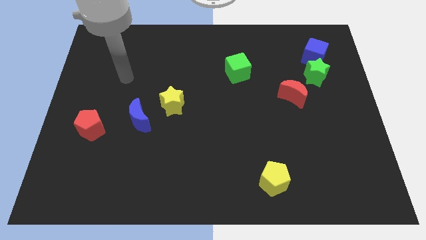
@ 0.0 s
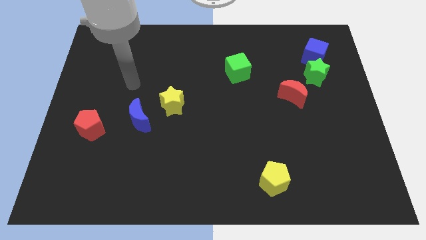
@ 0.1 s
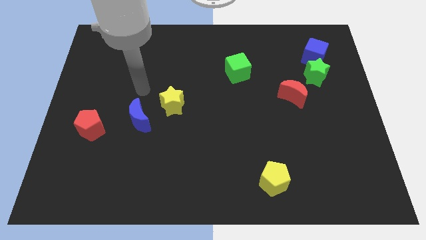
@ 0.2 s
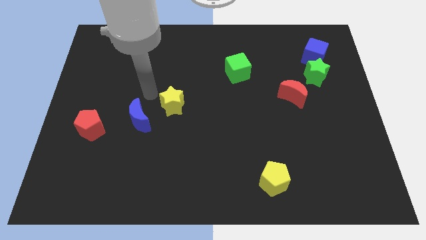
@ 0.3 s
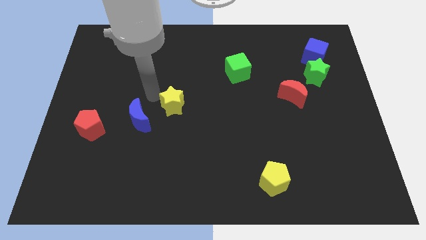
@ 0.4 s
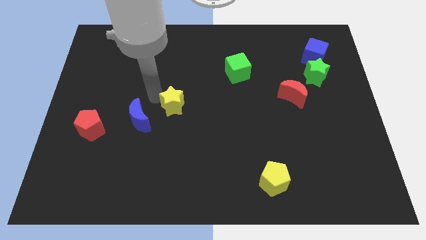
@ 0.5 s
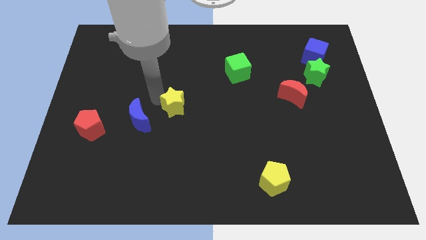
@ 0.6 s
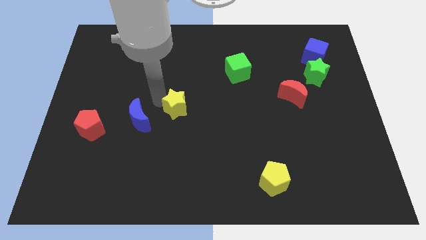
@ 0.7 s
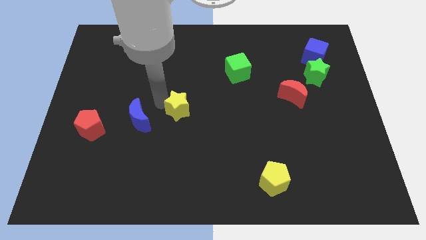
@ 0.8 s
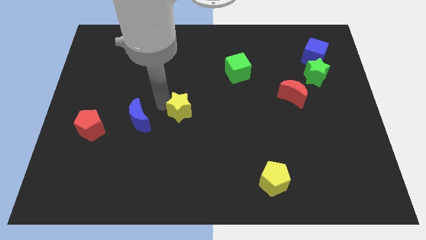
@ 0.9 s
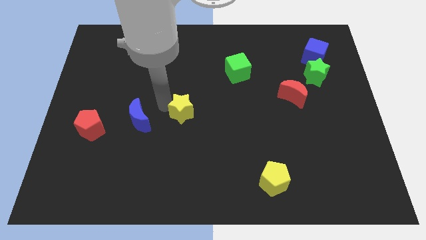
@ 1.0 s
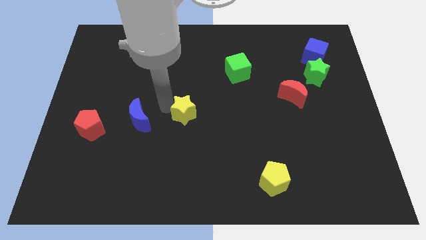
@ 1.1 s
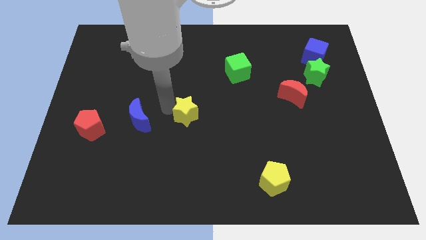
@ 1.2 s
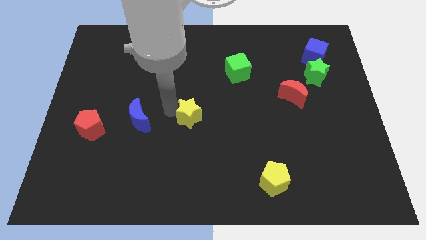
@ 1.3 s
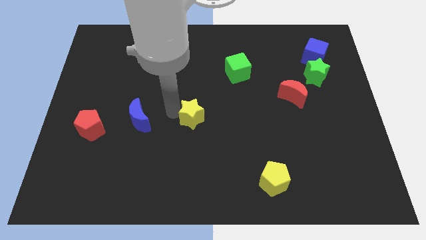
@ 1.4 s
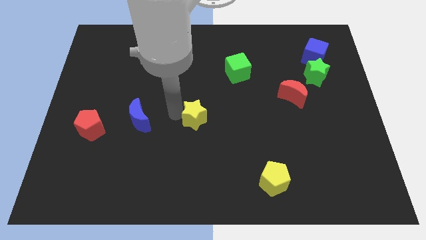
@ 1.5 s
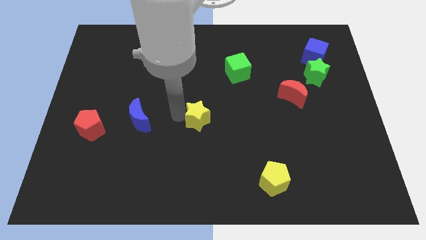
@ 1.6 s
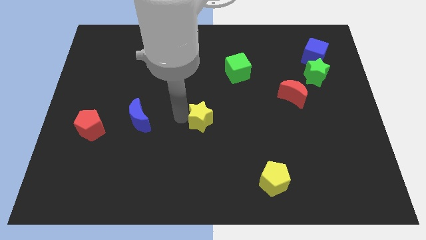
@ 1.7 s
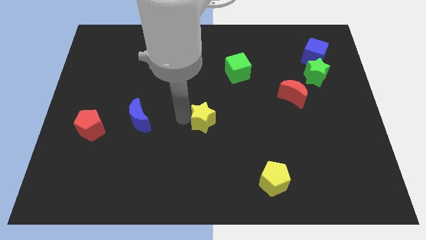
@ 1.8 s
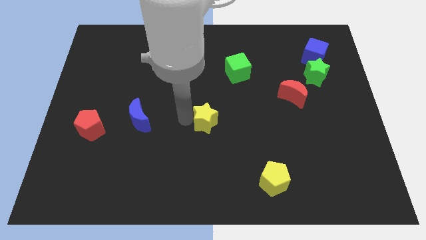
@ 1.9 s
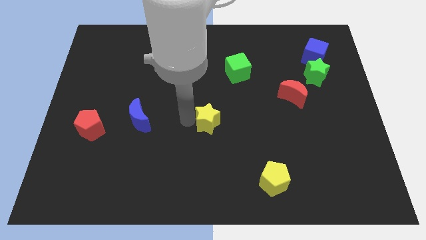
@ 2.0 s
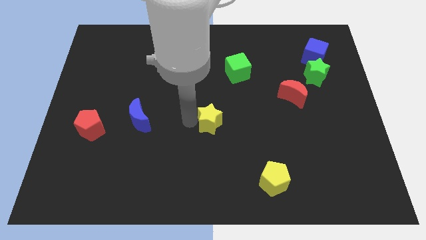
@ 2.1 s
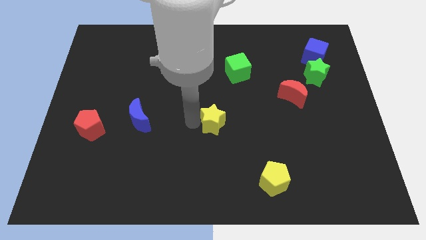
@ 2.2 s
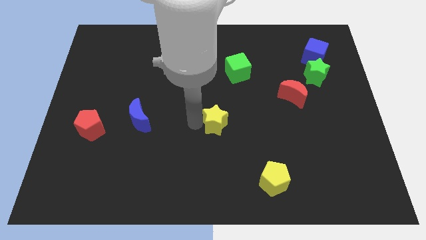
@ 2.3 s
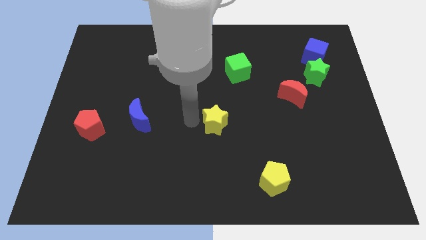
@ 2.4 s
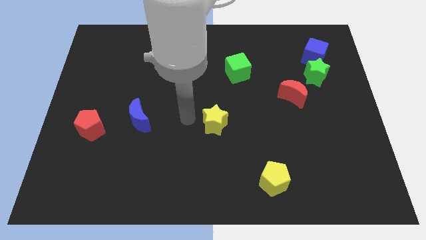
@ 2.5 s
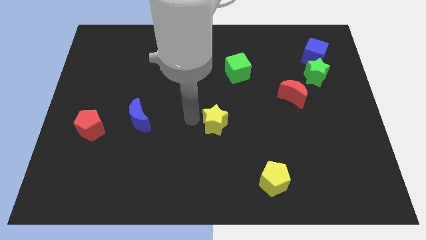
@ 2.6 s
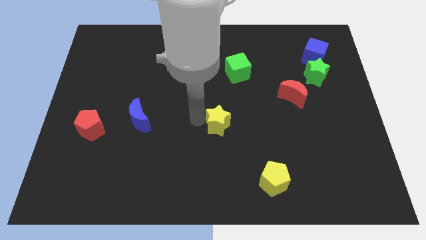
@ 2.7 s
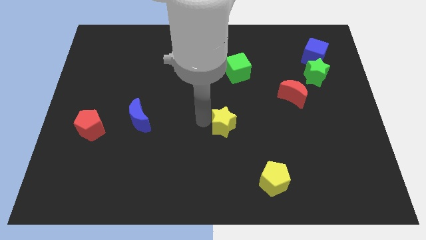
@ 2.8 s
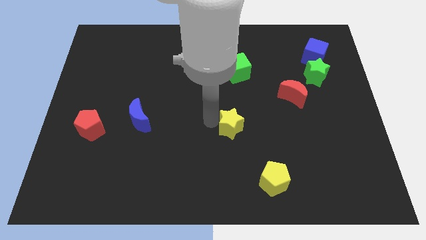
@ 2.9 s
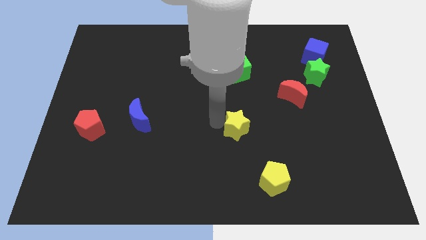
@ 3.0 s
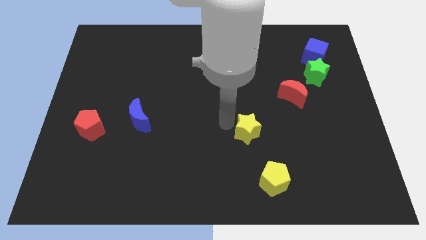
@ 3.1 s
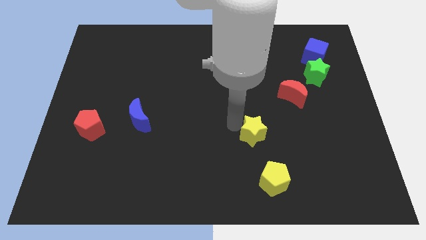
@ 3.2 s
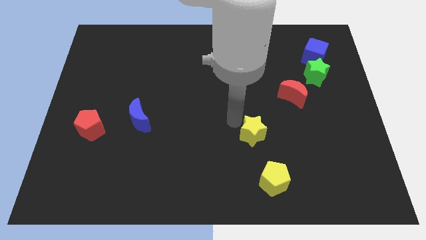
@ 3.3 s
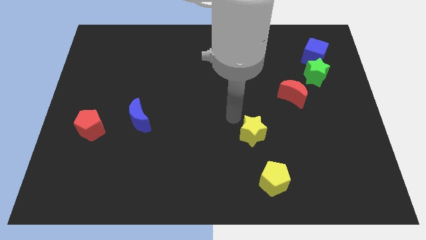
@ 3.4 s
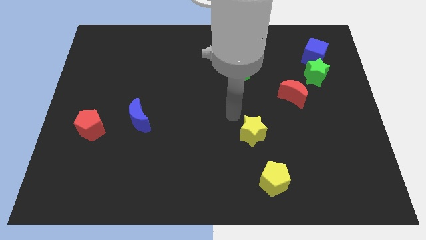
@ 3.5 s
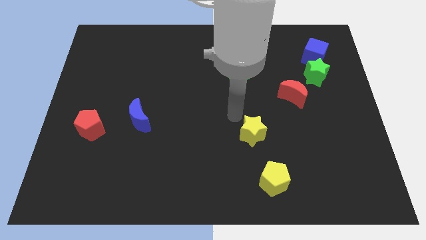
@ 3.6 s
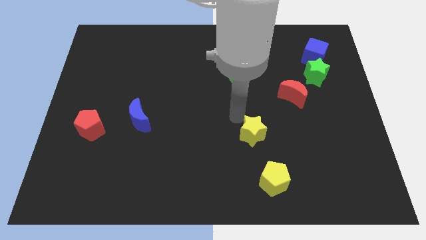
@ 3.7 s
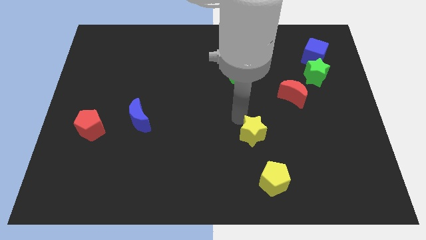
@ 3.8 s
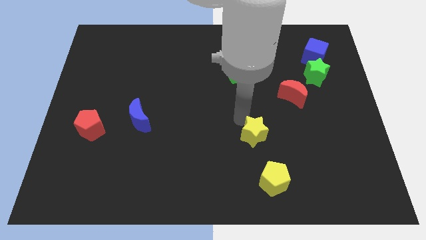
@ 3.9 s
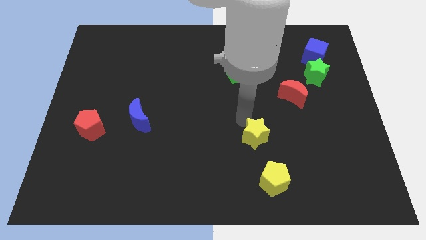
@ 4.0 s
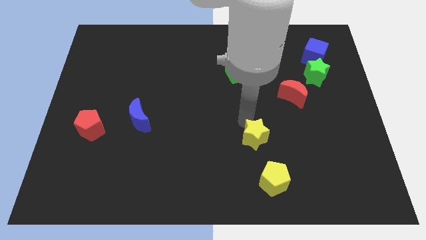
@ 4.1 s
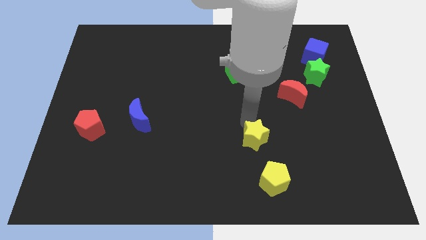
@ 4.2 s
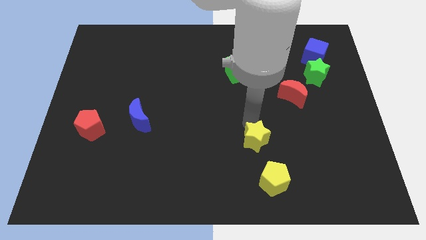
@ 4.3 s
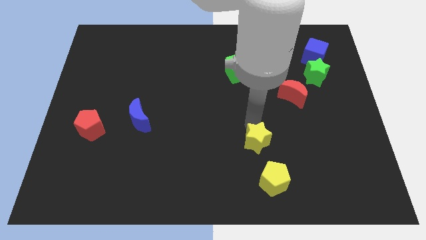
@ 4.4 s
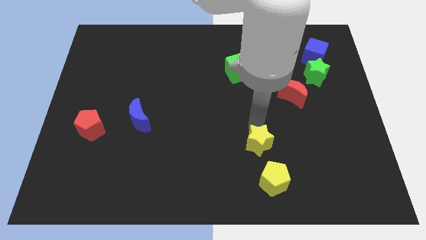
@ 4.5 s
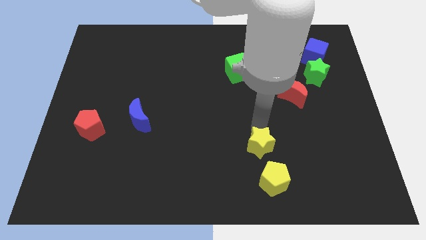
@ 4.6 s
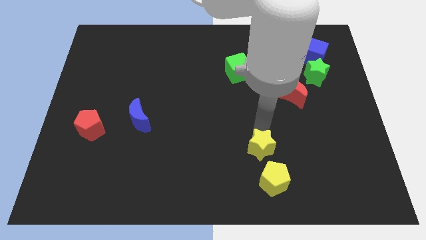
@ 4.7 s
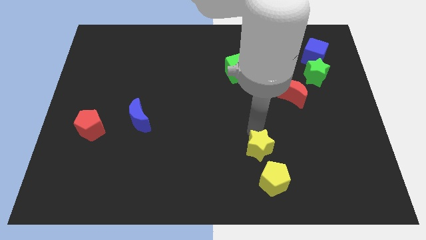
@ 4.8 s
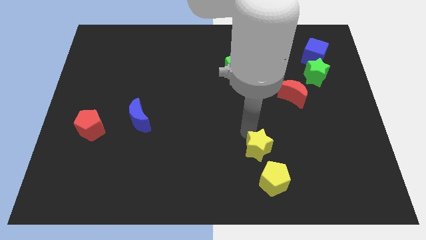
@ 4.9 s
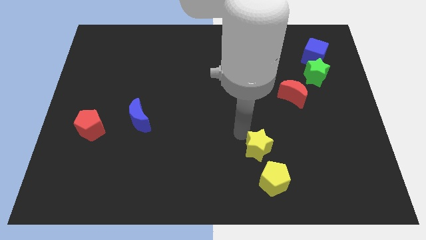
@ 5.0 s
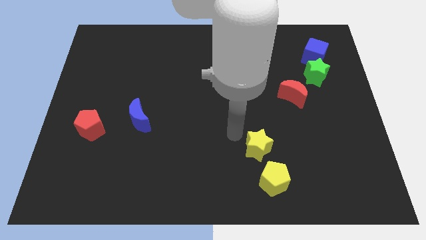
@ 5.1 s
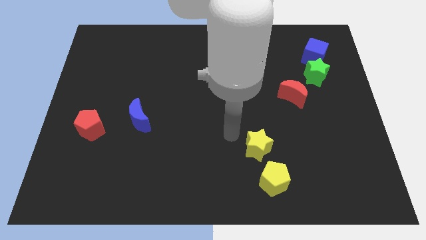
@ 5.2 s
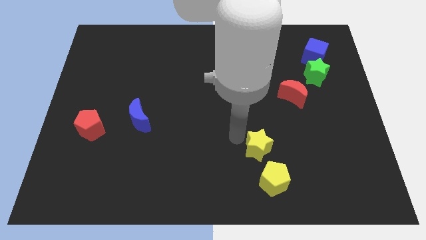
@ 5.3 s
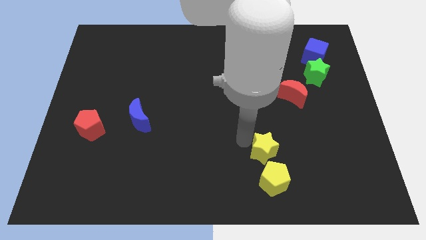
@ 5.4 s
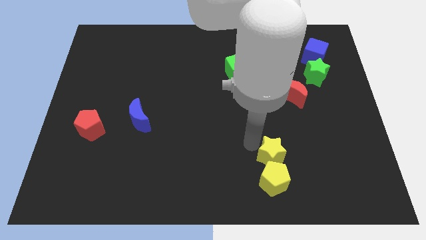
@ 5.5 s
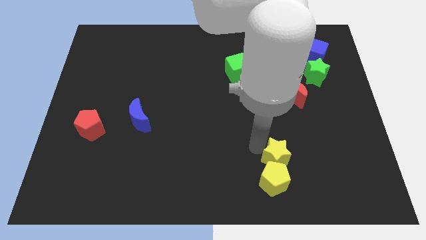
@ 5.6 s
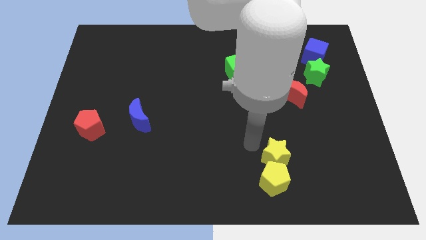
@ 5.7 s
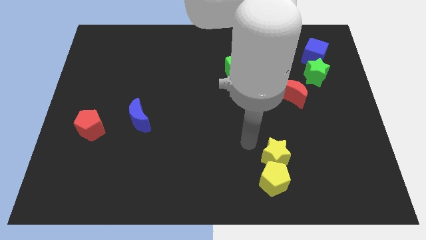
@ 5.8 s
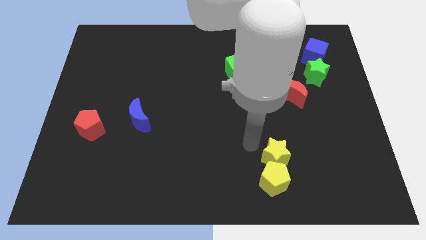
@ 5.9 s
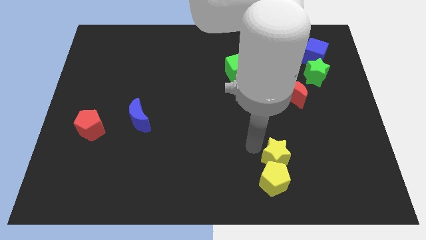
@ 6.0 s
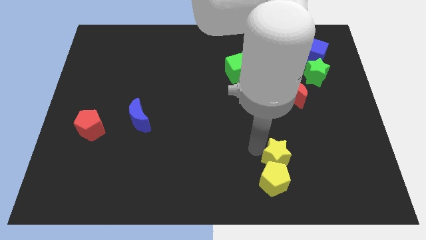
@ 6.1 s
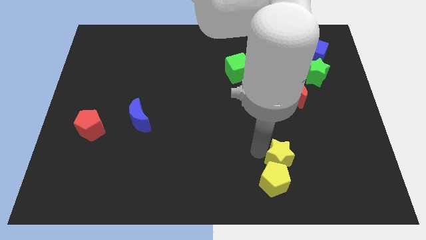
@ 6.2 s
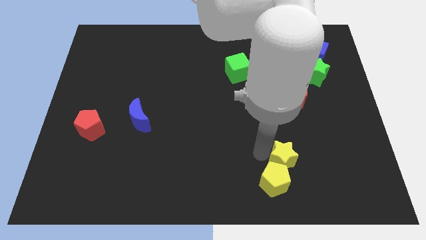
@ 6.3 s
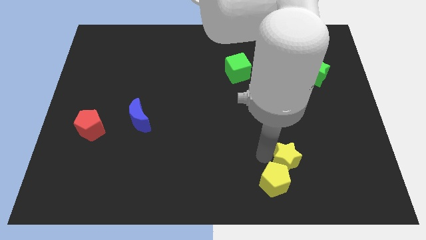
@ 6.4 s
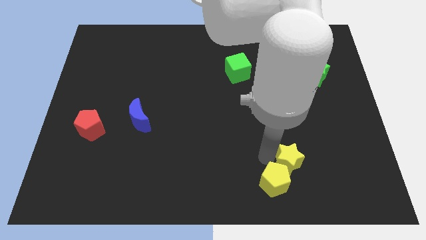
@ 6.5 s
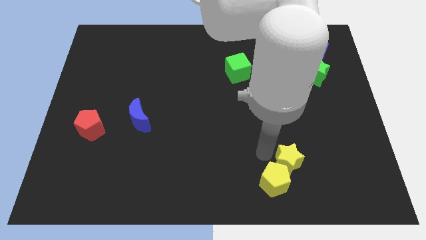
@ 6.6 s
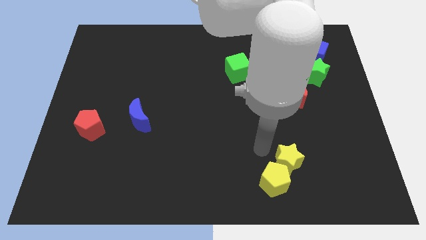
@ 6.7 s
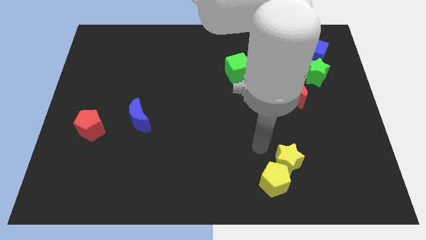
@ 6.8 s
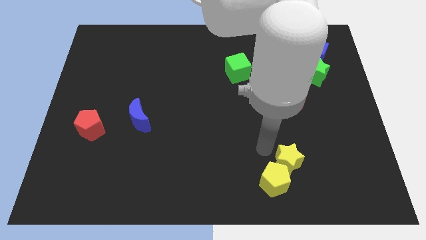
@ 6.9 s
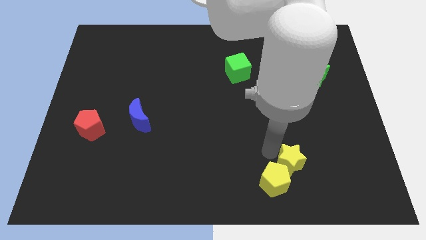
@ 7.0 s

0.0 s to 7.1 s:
put the yellow star just right of the yellow pentagon
